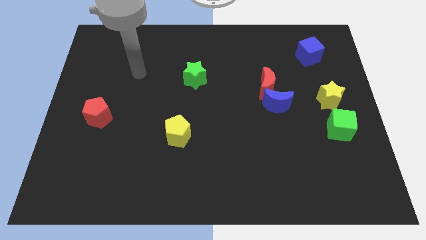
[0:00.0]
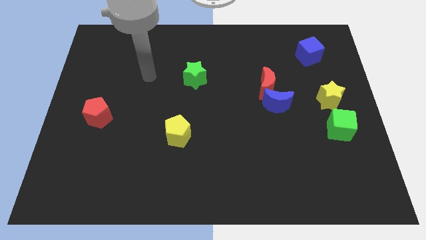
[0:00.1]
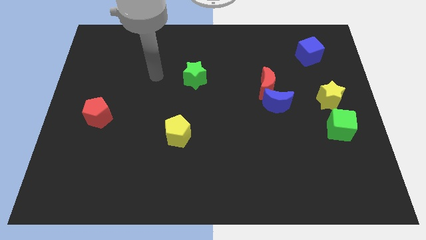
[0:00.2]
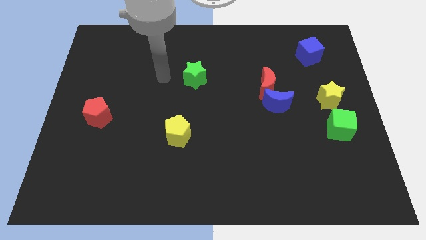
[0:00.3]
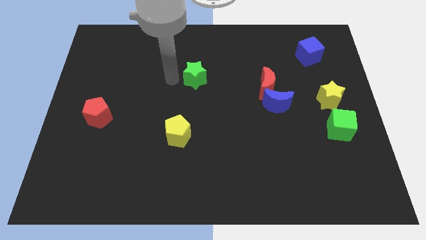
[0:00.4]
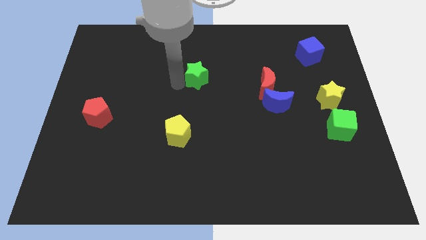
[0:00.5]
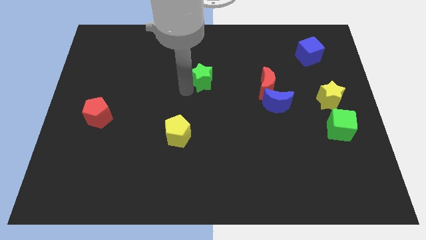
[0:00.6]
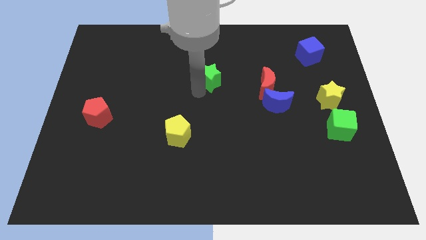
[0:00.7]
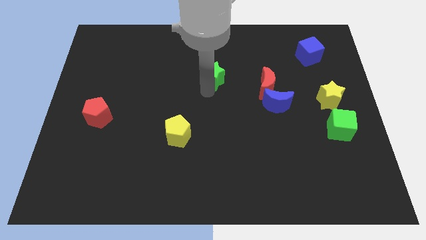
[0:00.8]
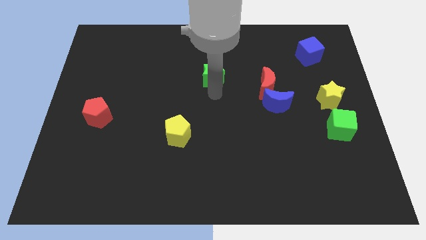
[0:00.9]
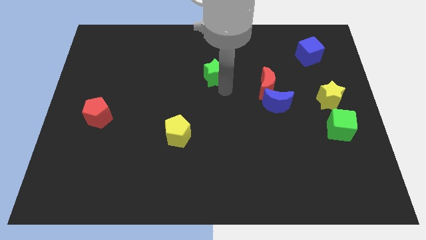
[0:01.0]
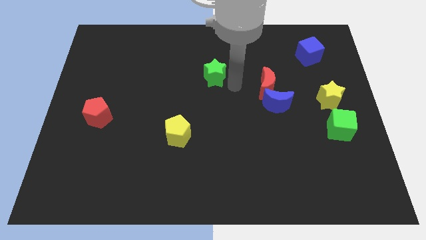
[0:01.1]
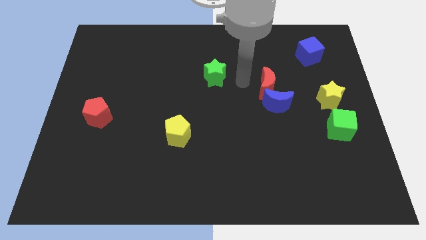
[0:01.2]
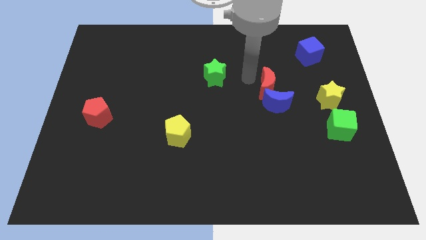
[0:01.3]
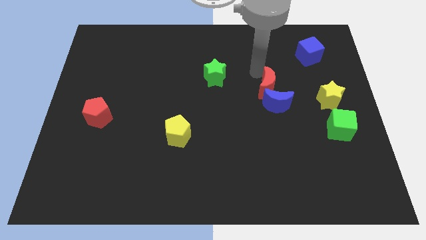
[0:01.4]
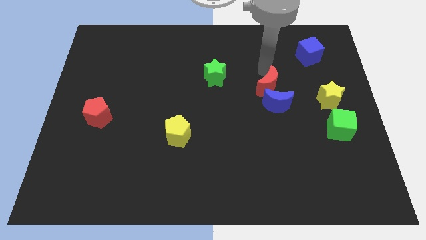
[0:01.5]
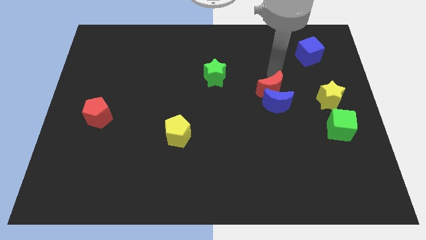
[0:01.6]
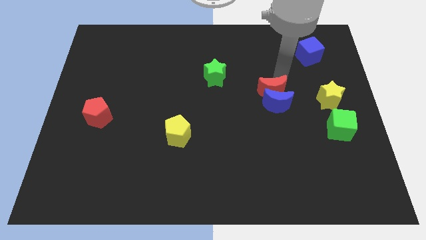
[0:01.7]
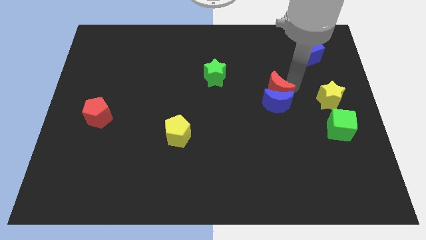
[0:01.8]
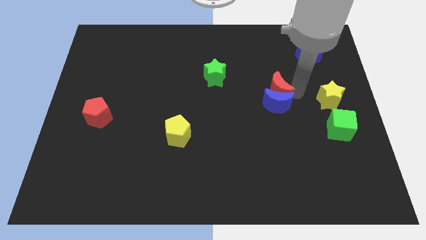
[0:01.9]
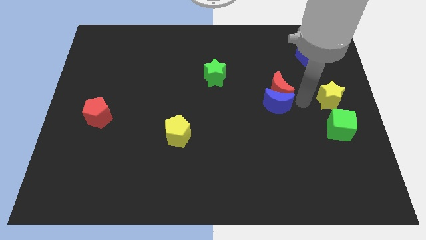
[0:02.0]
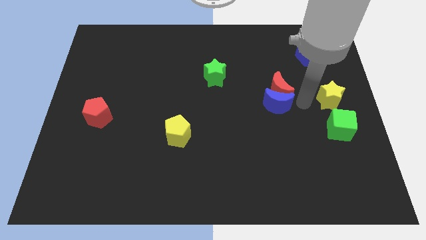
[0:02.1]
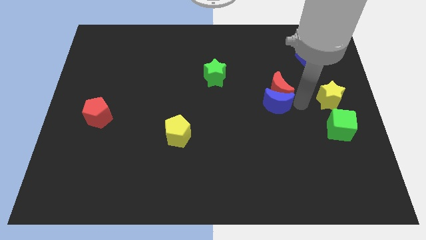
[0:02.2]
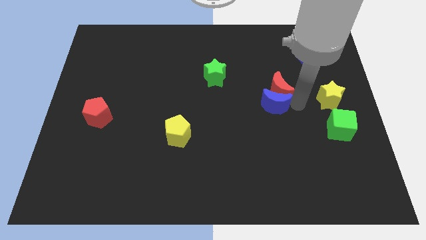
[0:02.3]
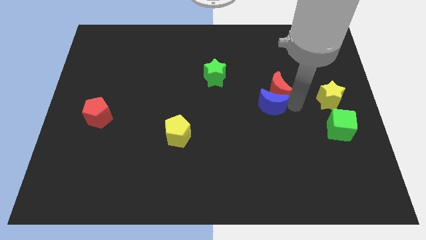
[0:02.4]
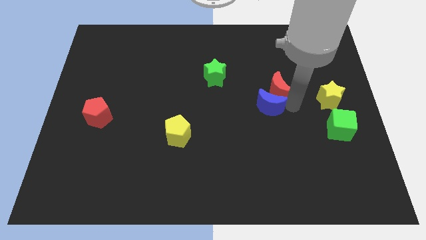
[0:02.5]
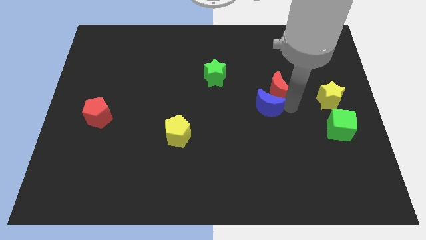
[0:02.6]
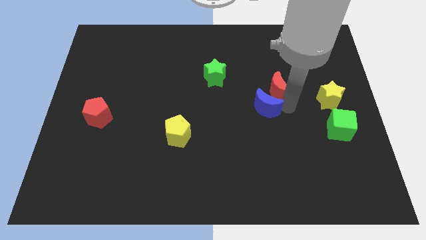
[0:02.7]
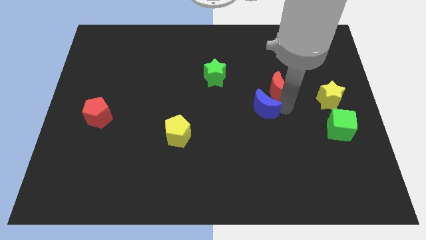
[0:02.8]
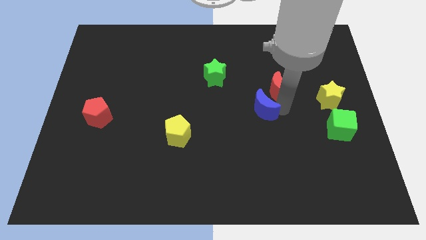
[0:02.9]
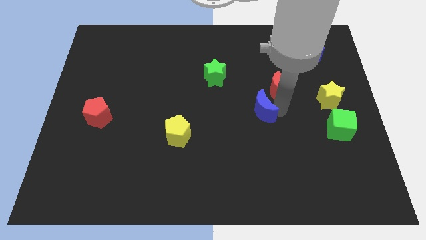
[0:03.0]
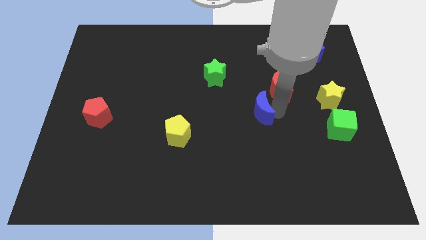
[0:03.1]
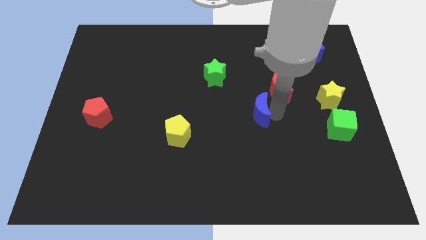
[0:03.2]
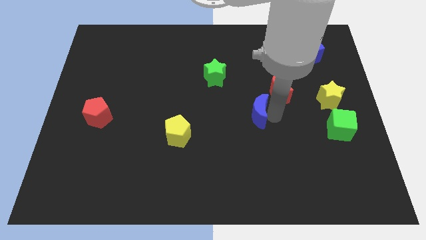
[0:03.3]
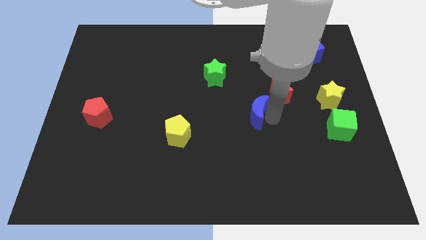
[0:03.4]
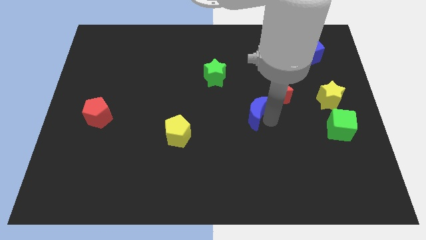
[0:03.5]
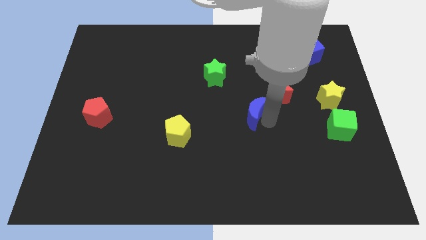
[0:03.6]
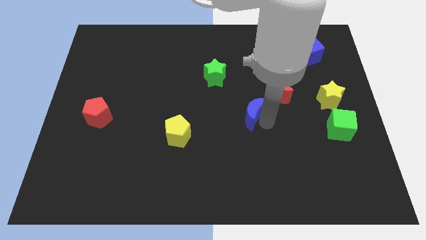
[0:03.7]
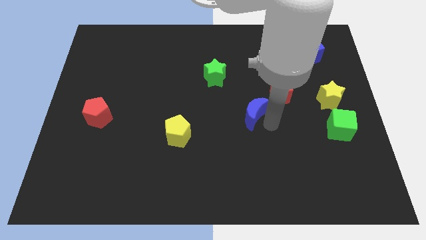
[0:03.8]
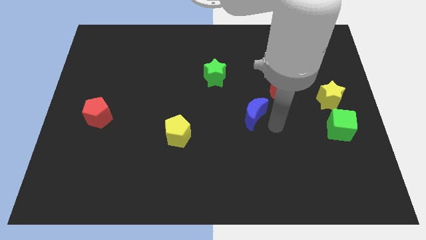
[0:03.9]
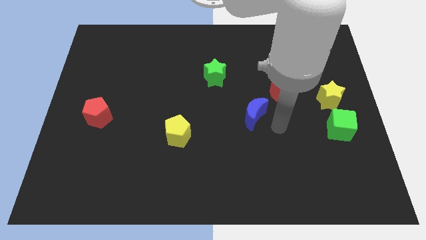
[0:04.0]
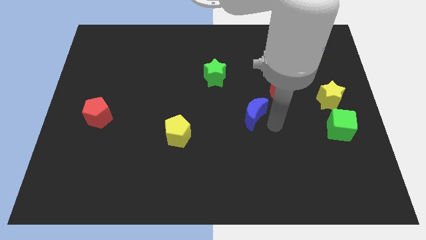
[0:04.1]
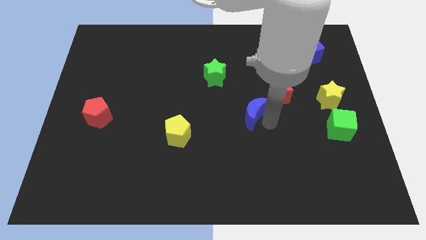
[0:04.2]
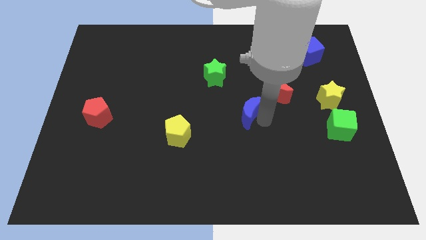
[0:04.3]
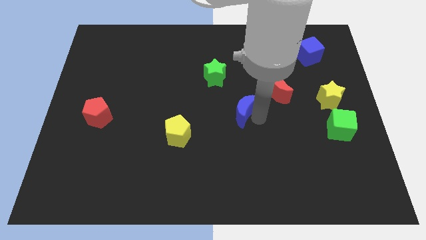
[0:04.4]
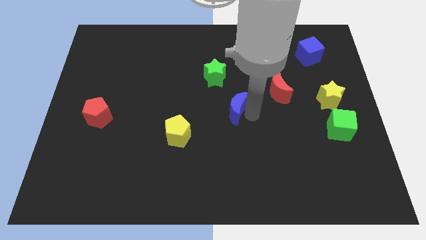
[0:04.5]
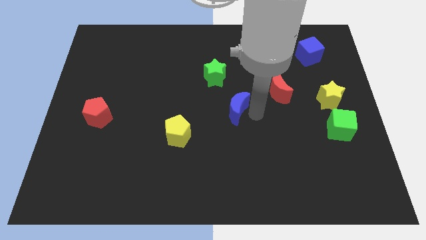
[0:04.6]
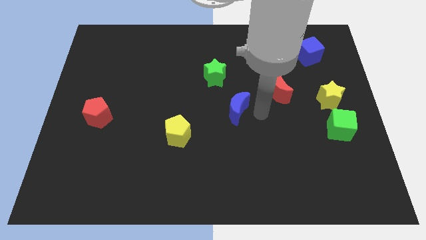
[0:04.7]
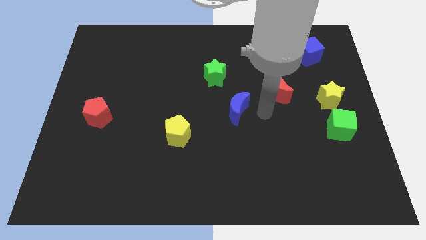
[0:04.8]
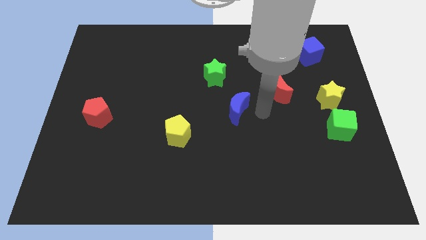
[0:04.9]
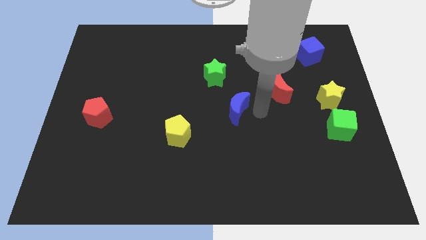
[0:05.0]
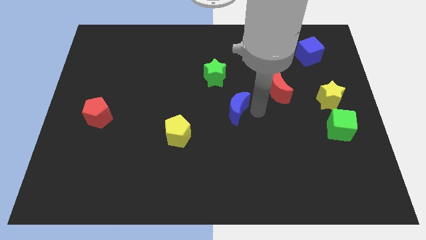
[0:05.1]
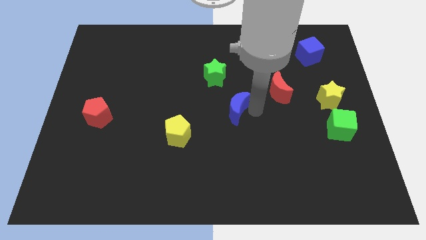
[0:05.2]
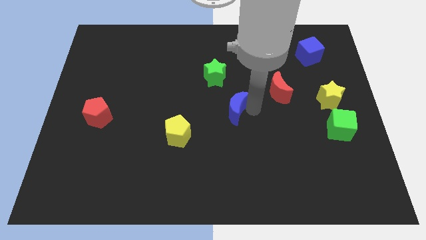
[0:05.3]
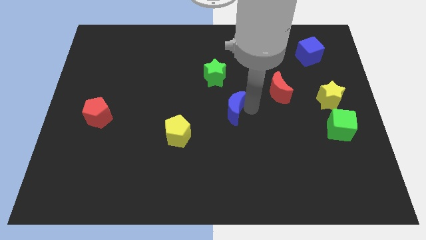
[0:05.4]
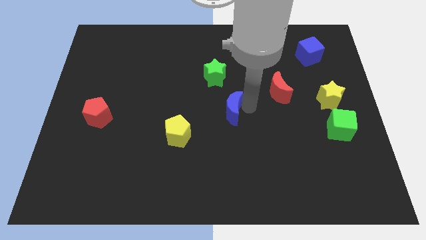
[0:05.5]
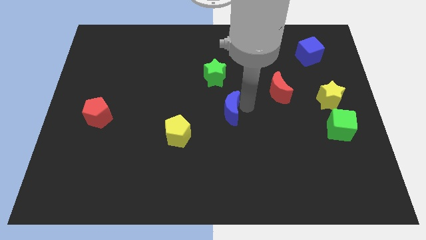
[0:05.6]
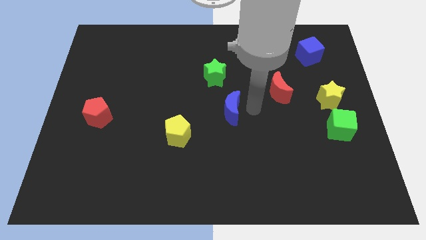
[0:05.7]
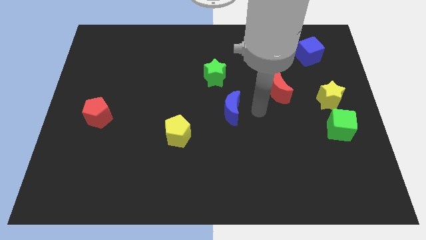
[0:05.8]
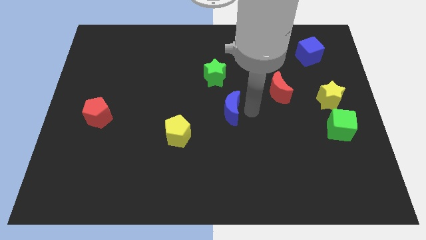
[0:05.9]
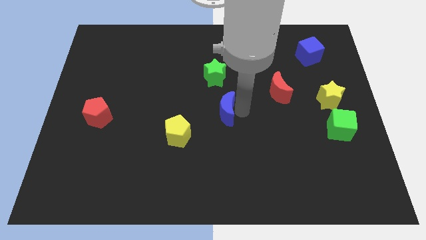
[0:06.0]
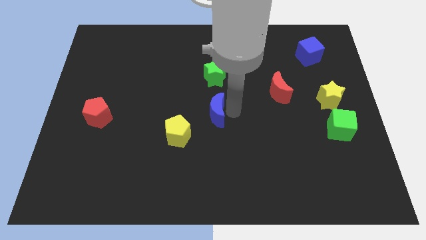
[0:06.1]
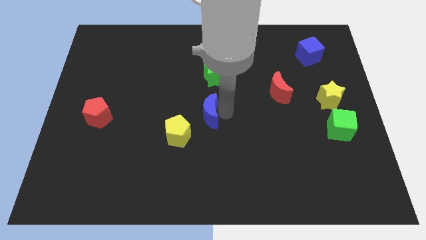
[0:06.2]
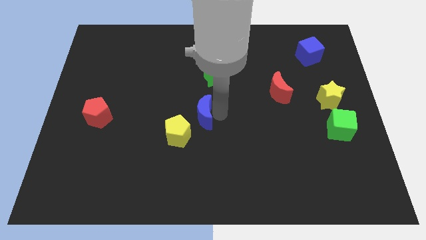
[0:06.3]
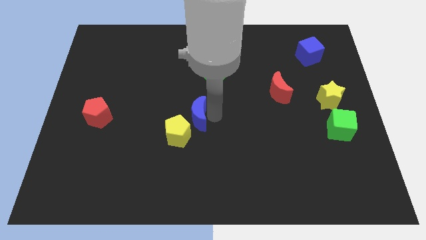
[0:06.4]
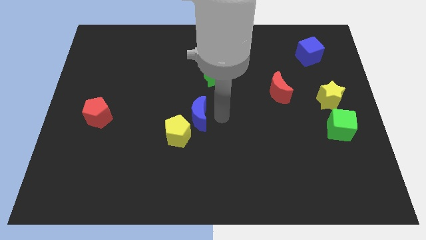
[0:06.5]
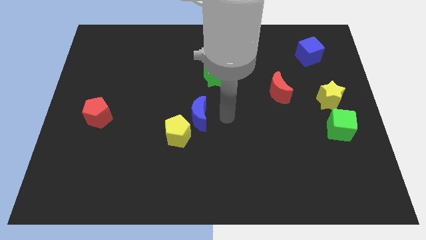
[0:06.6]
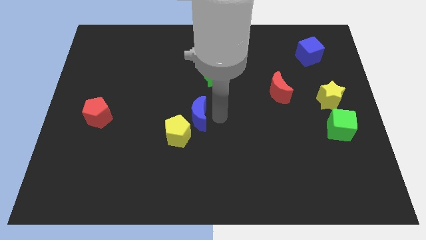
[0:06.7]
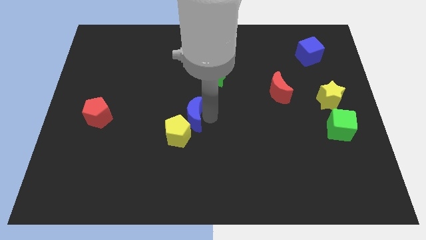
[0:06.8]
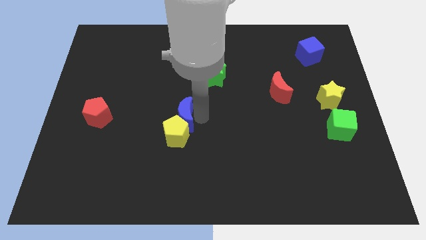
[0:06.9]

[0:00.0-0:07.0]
put the blue moon to the top left of the yellow pentagon

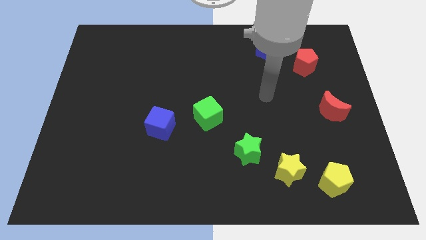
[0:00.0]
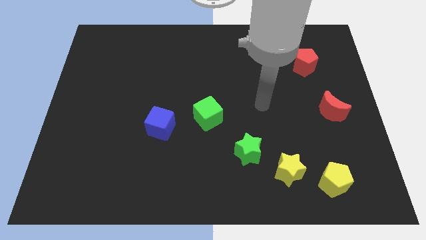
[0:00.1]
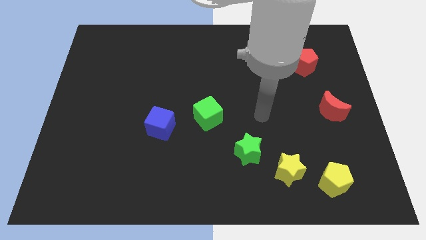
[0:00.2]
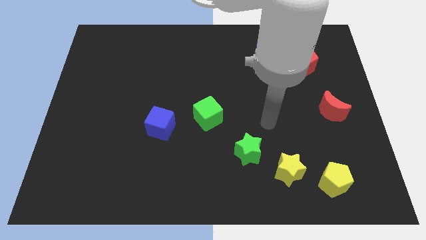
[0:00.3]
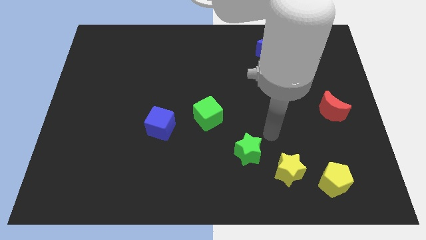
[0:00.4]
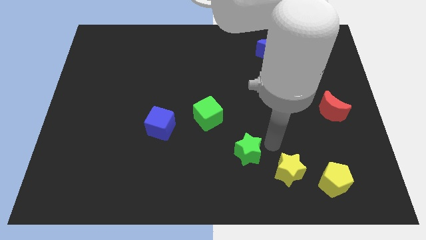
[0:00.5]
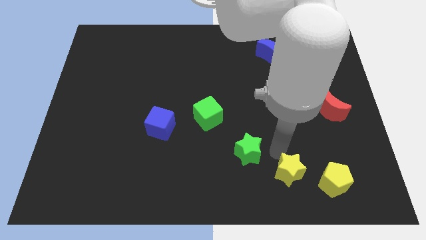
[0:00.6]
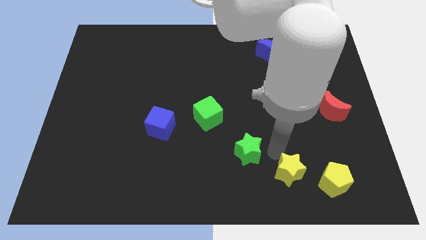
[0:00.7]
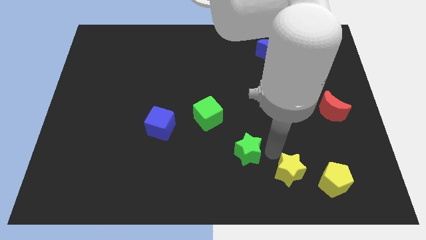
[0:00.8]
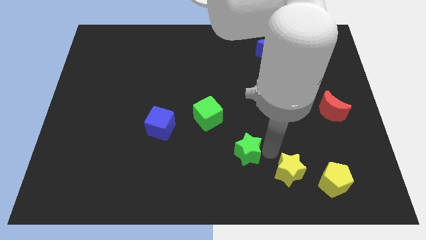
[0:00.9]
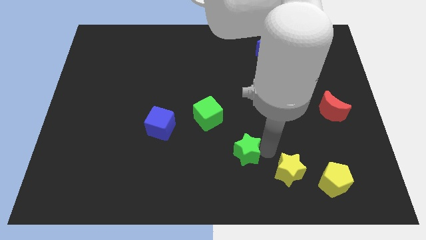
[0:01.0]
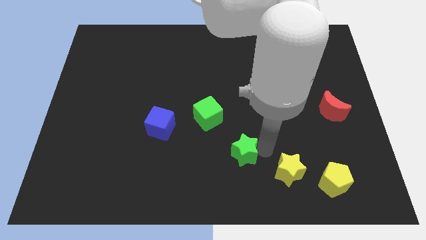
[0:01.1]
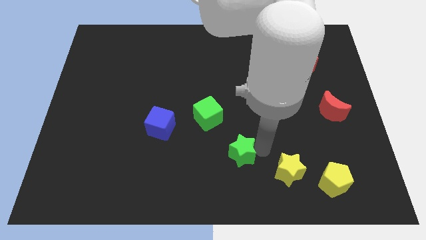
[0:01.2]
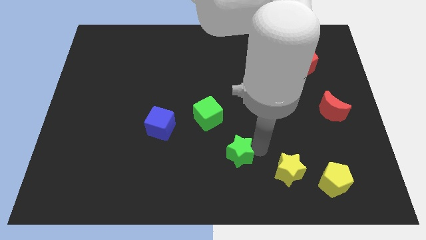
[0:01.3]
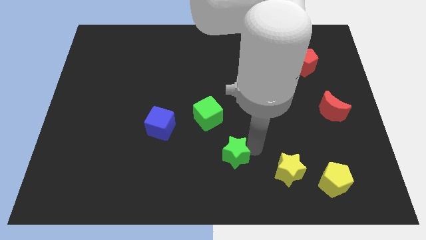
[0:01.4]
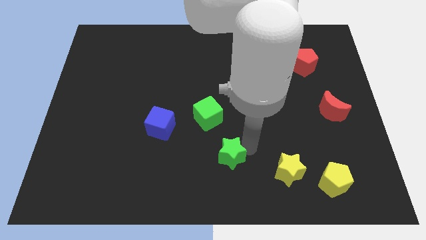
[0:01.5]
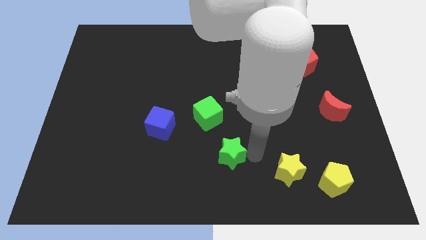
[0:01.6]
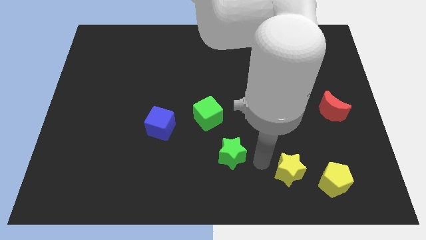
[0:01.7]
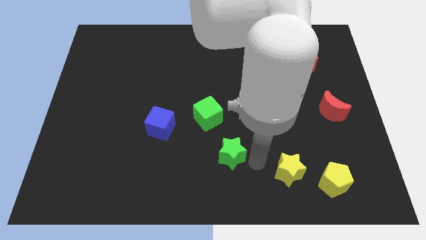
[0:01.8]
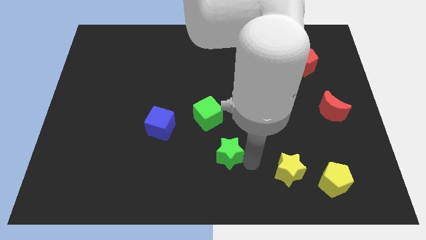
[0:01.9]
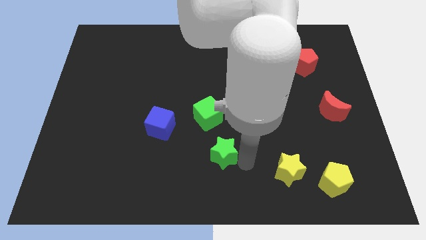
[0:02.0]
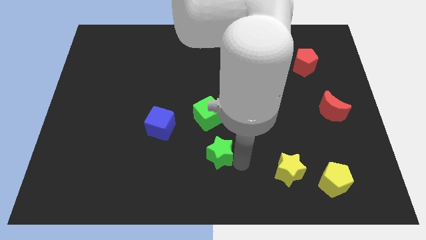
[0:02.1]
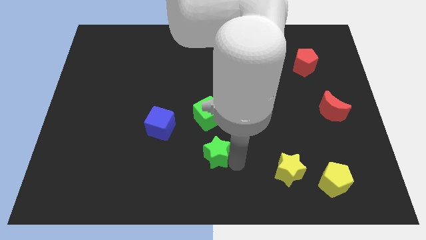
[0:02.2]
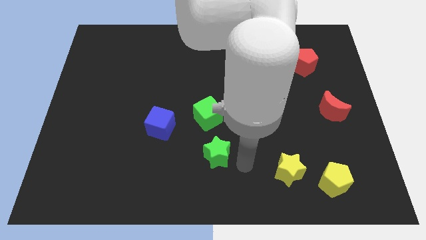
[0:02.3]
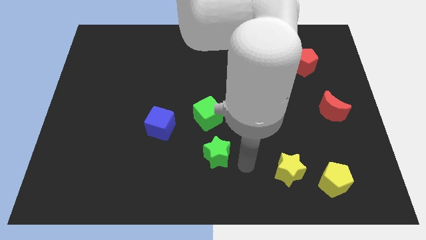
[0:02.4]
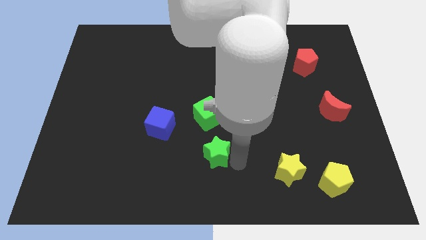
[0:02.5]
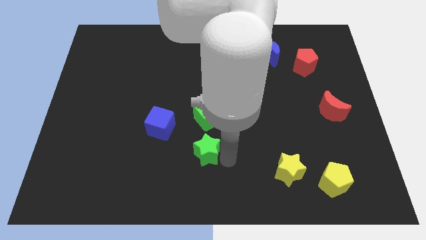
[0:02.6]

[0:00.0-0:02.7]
put the green star diagonally down and to the right of the blue cube
